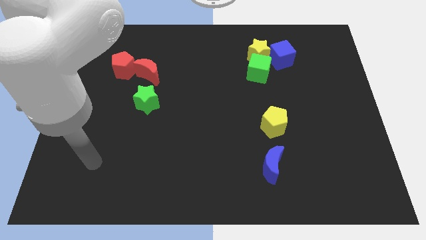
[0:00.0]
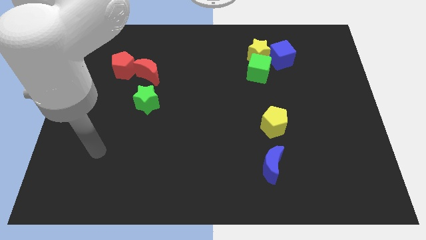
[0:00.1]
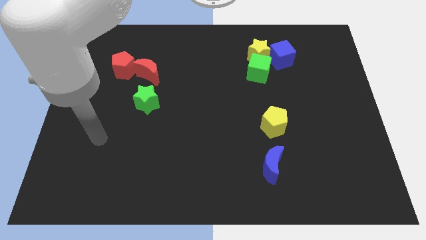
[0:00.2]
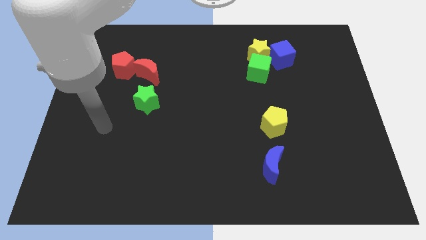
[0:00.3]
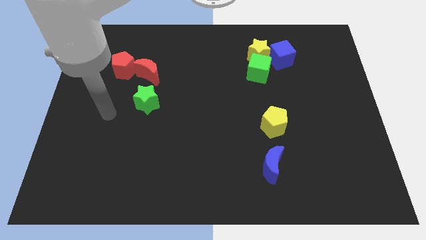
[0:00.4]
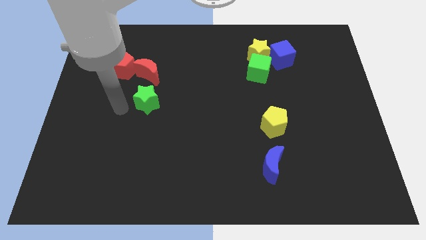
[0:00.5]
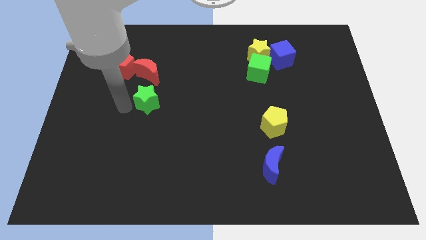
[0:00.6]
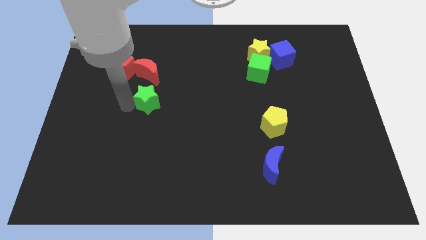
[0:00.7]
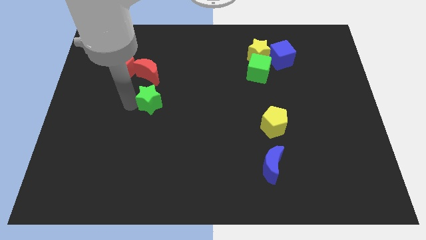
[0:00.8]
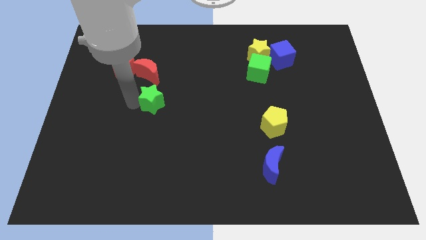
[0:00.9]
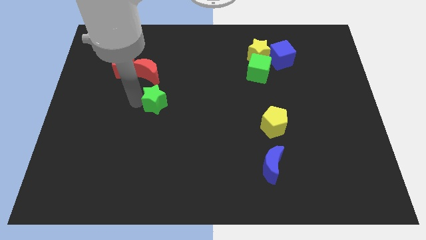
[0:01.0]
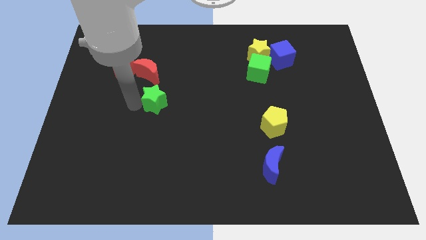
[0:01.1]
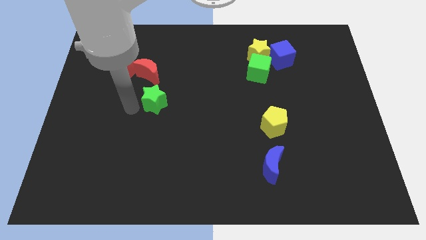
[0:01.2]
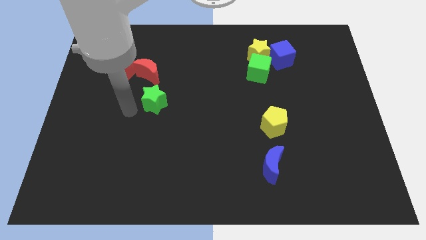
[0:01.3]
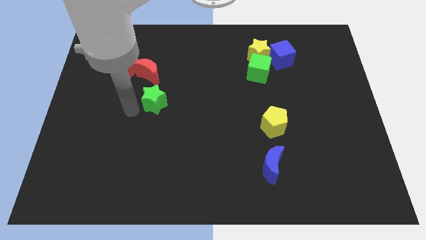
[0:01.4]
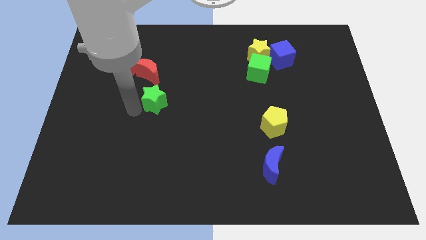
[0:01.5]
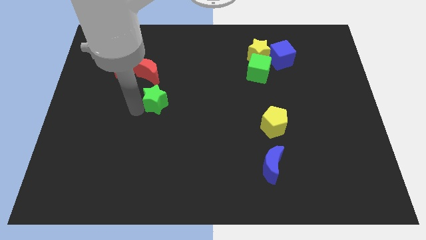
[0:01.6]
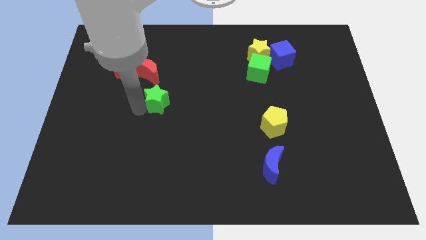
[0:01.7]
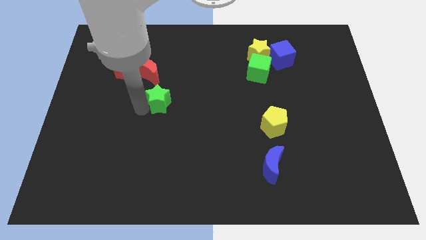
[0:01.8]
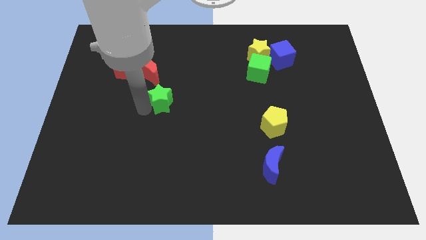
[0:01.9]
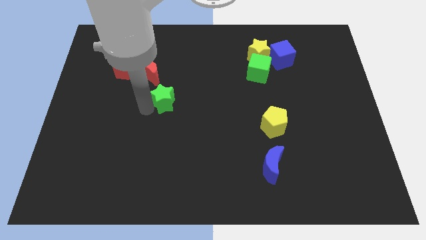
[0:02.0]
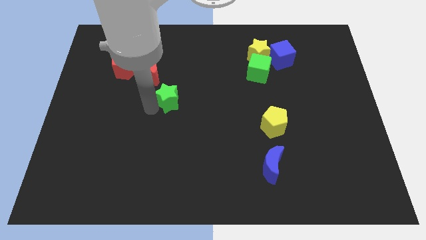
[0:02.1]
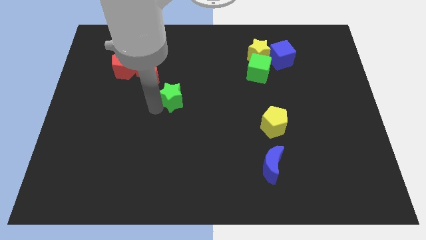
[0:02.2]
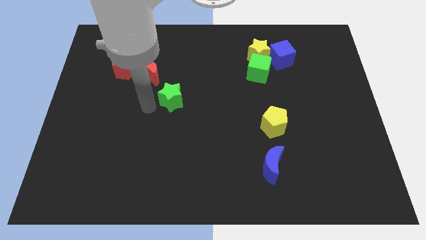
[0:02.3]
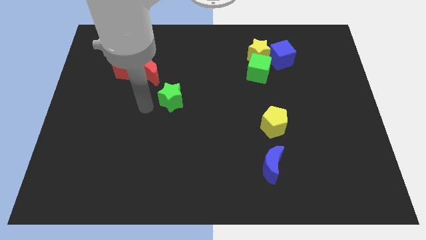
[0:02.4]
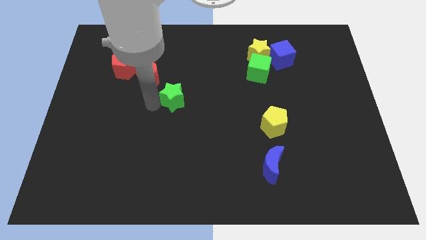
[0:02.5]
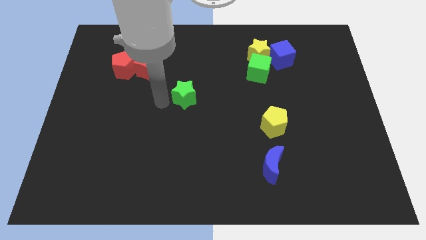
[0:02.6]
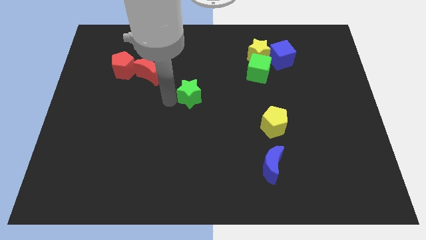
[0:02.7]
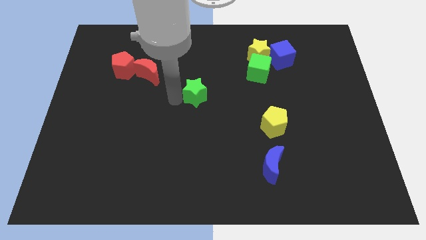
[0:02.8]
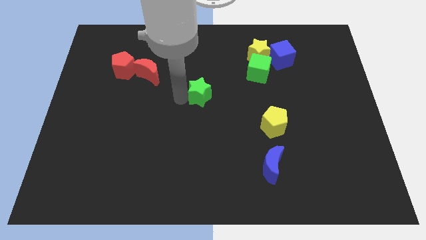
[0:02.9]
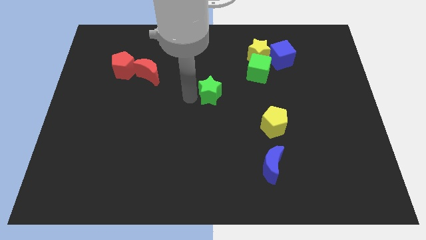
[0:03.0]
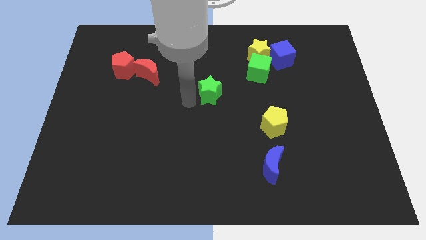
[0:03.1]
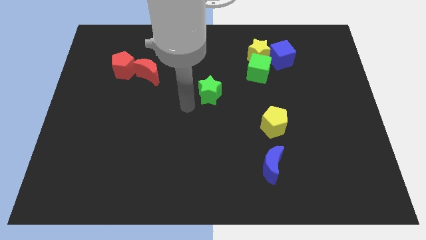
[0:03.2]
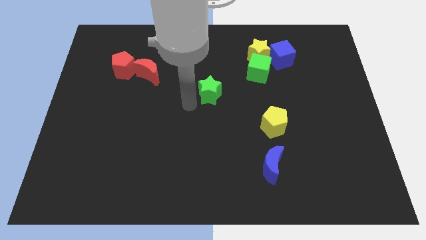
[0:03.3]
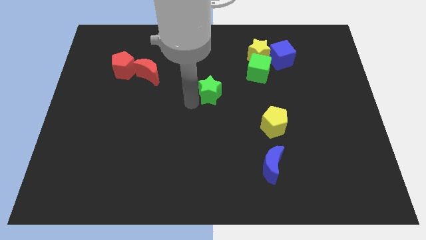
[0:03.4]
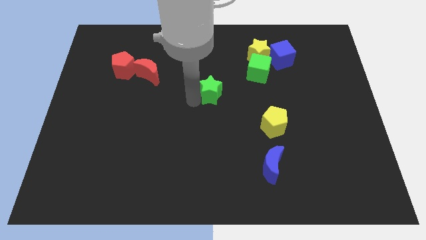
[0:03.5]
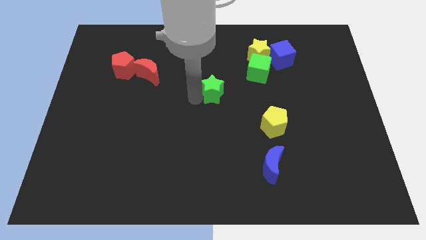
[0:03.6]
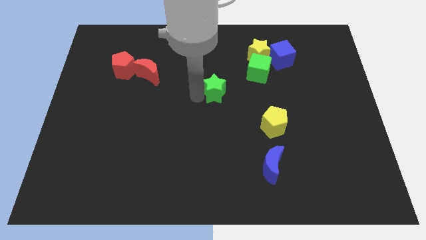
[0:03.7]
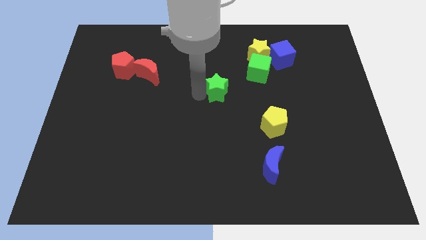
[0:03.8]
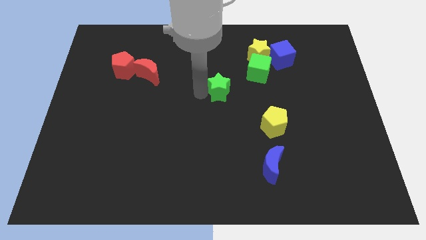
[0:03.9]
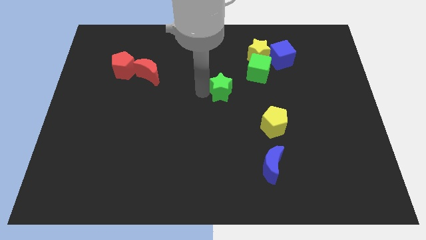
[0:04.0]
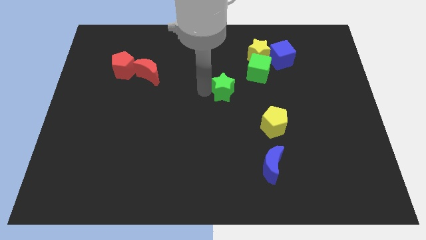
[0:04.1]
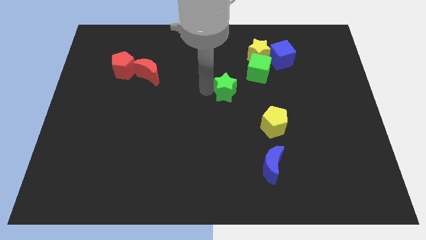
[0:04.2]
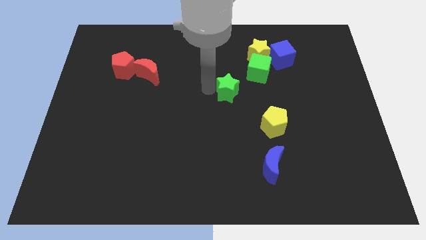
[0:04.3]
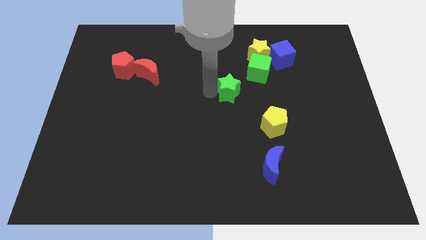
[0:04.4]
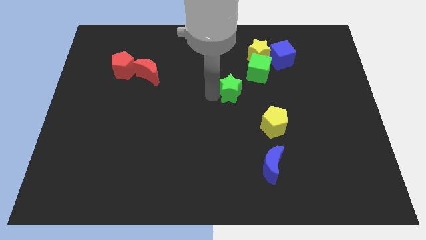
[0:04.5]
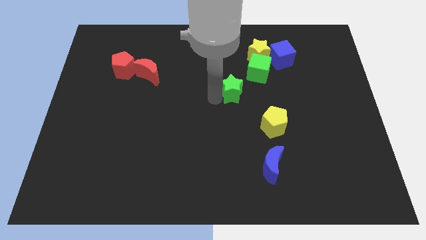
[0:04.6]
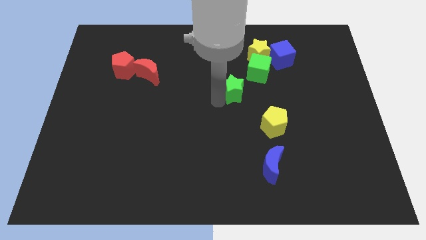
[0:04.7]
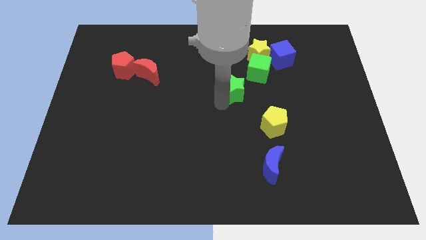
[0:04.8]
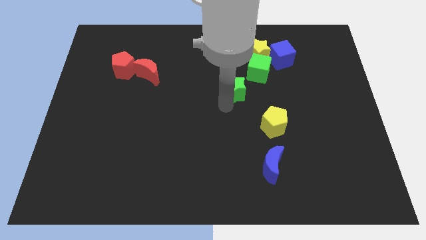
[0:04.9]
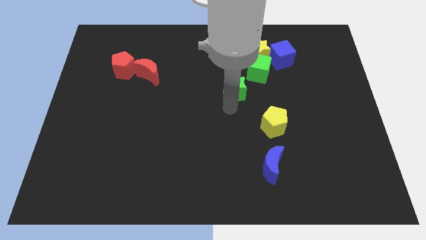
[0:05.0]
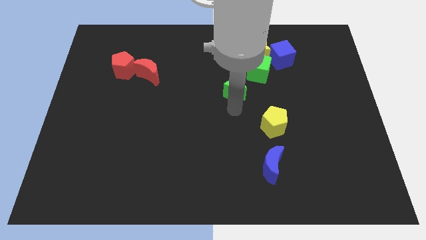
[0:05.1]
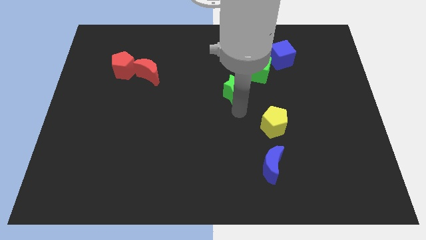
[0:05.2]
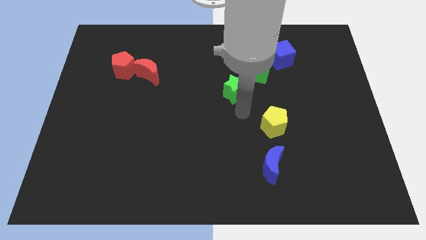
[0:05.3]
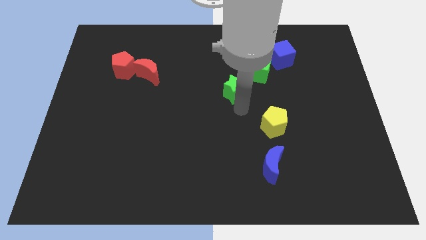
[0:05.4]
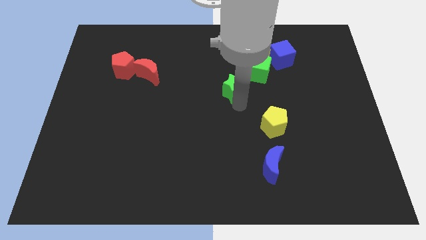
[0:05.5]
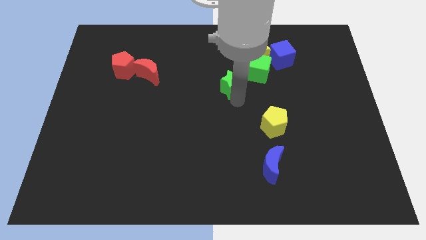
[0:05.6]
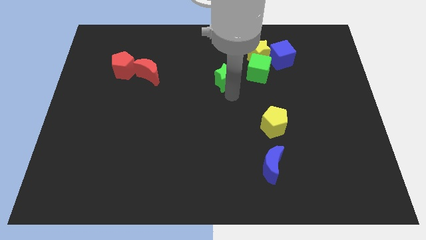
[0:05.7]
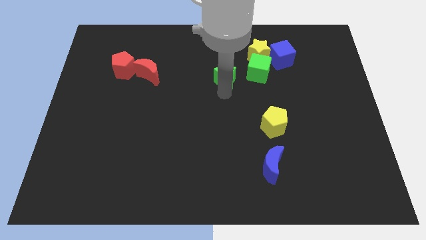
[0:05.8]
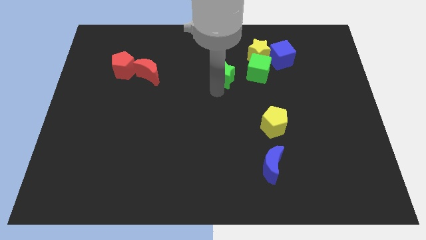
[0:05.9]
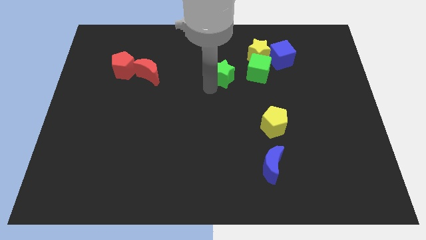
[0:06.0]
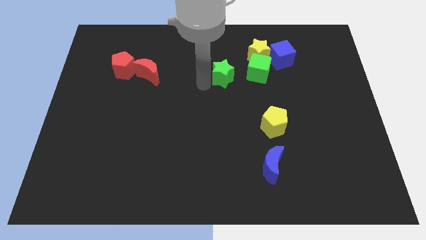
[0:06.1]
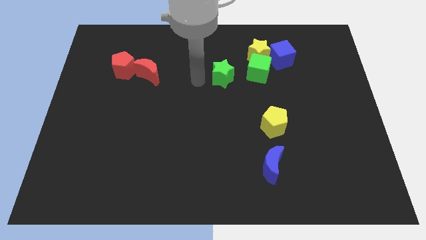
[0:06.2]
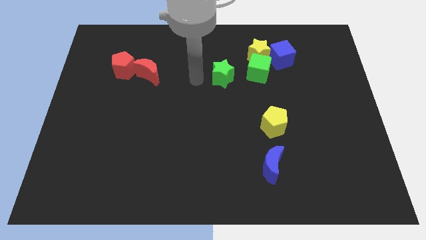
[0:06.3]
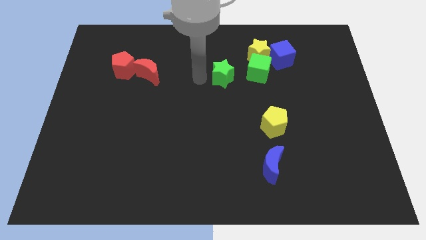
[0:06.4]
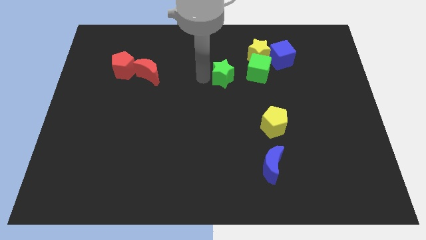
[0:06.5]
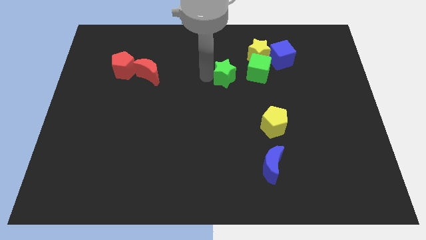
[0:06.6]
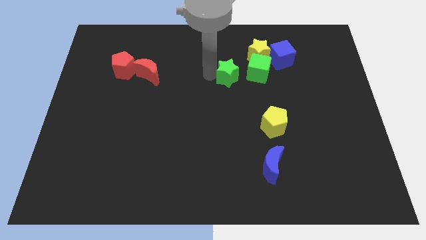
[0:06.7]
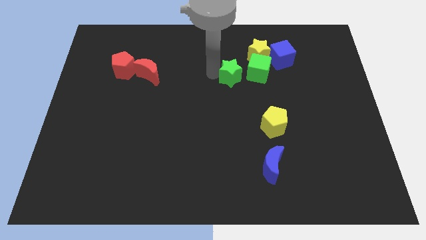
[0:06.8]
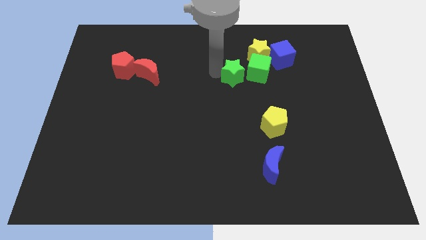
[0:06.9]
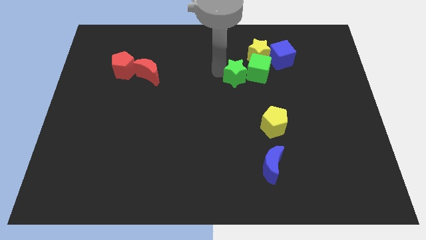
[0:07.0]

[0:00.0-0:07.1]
slide the green star close to the green cube
